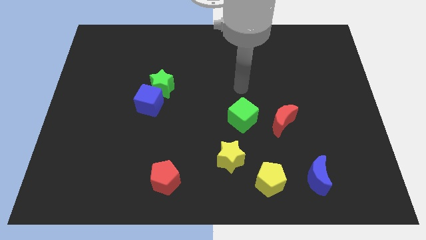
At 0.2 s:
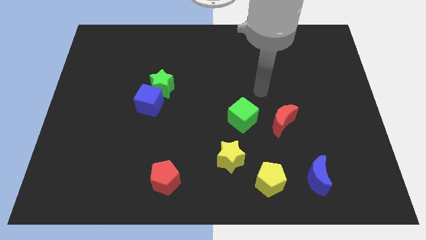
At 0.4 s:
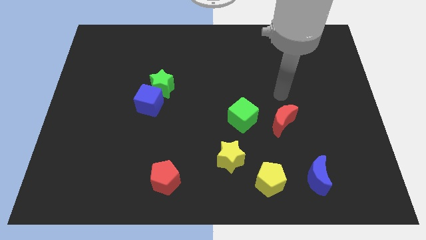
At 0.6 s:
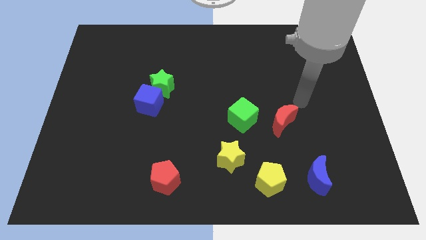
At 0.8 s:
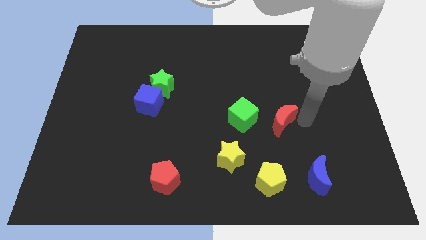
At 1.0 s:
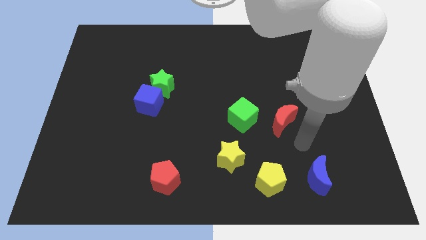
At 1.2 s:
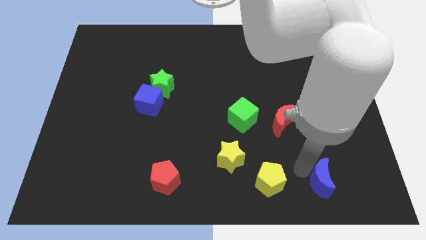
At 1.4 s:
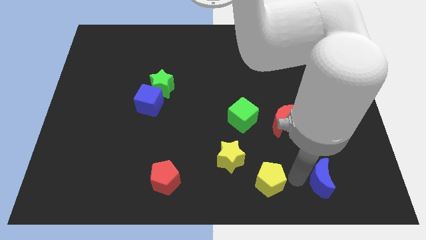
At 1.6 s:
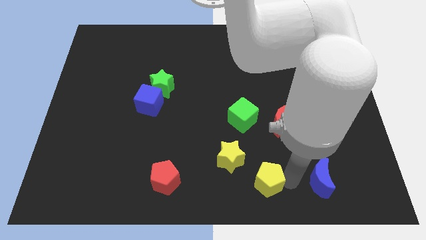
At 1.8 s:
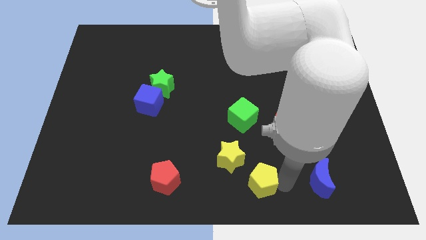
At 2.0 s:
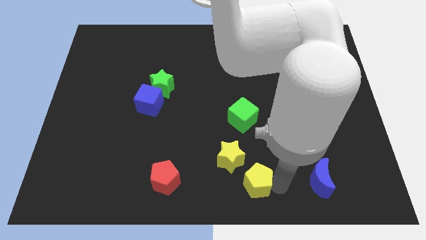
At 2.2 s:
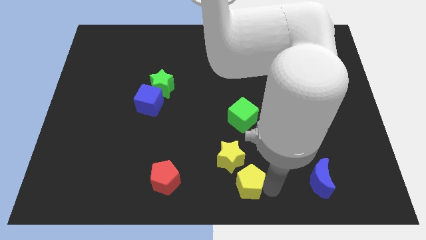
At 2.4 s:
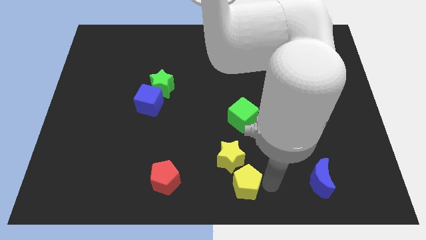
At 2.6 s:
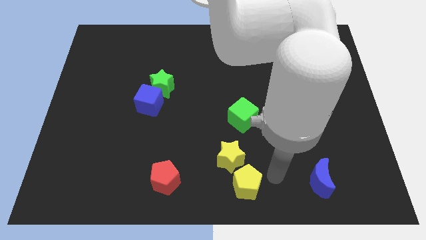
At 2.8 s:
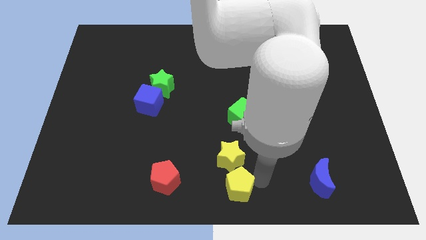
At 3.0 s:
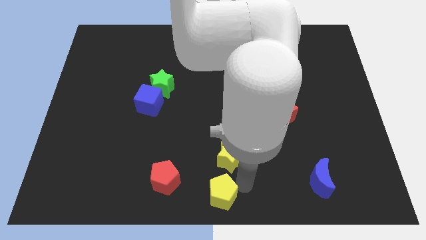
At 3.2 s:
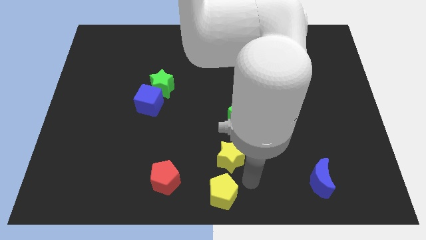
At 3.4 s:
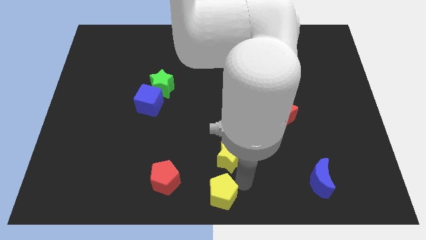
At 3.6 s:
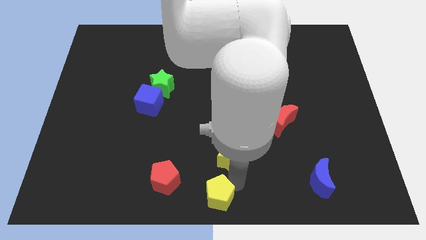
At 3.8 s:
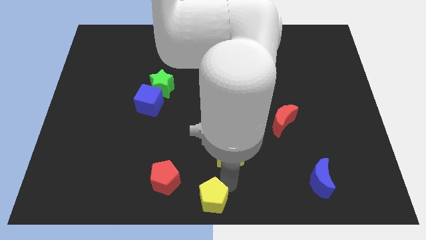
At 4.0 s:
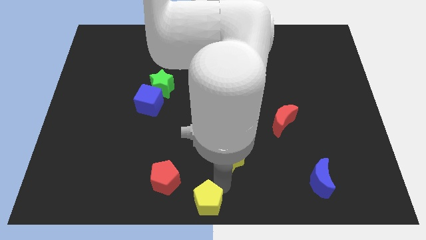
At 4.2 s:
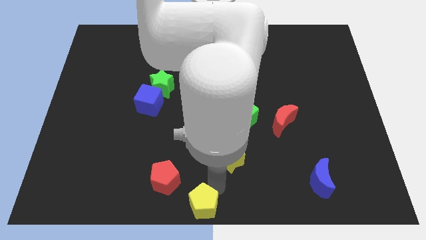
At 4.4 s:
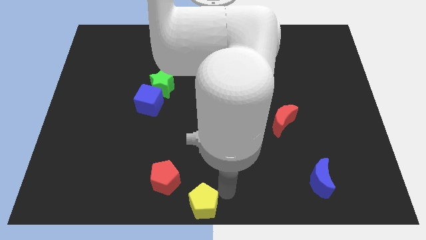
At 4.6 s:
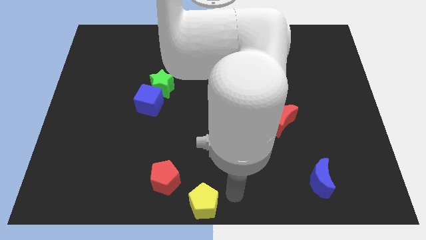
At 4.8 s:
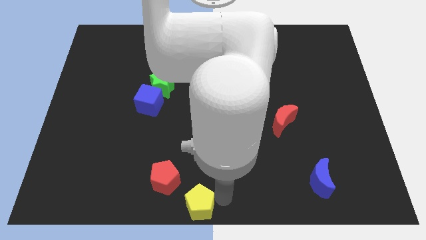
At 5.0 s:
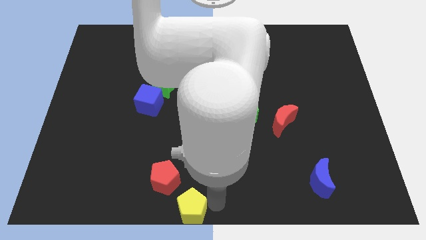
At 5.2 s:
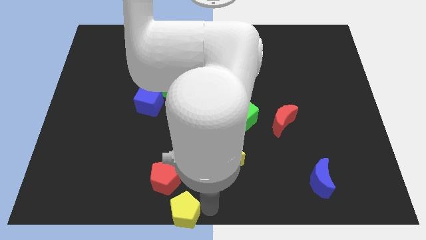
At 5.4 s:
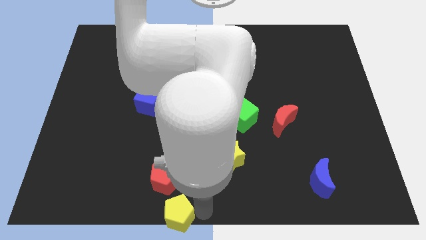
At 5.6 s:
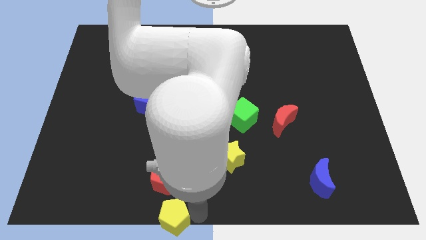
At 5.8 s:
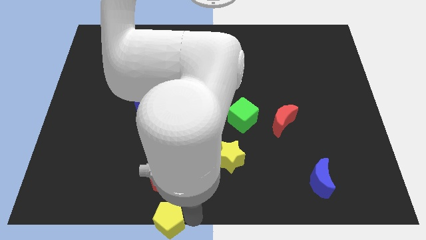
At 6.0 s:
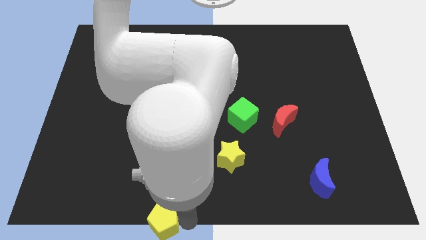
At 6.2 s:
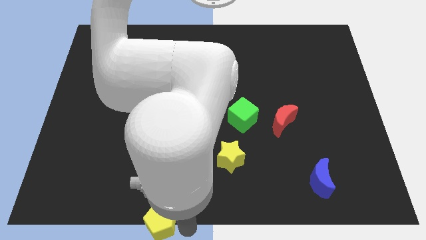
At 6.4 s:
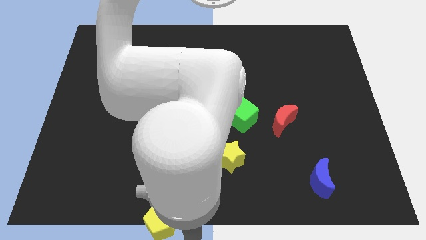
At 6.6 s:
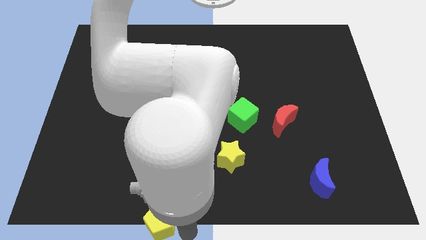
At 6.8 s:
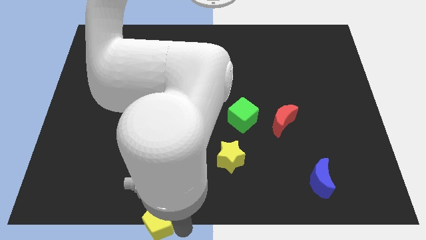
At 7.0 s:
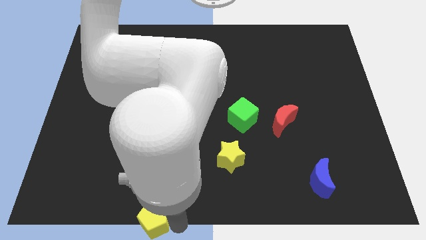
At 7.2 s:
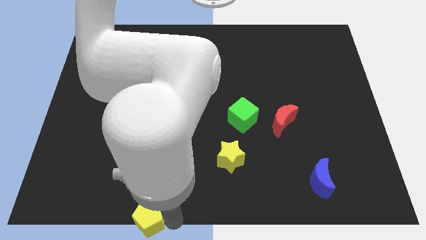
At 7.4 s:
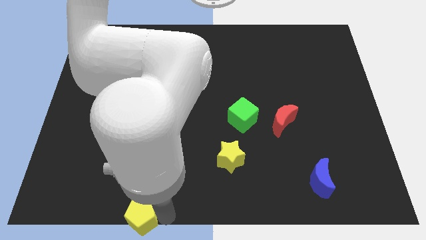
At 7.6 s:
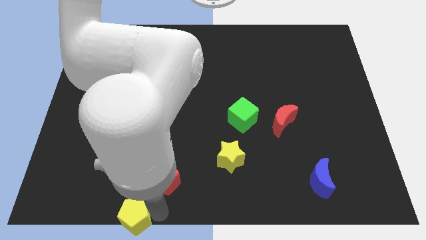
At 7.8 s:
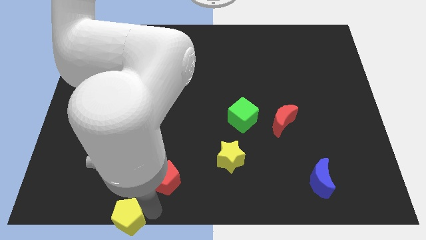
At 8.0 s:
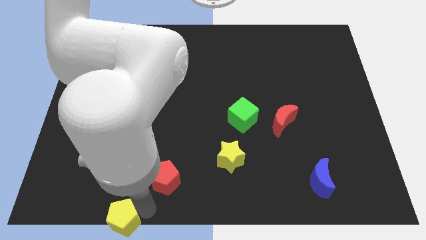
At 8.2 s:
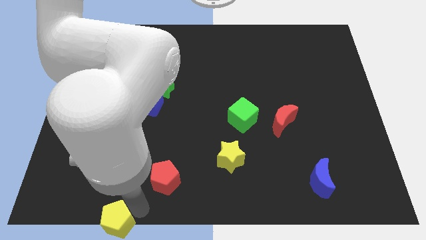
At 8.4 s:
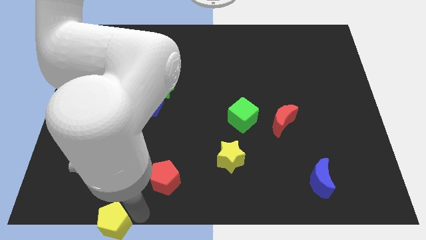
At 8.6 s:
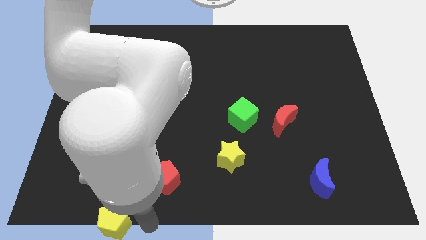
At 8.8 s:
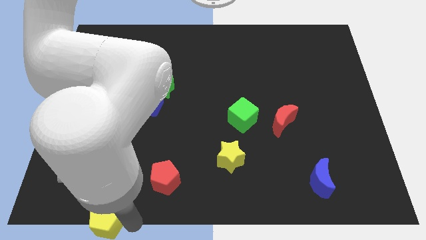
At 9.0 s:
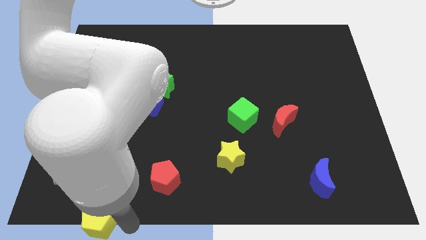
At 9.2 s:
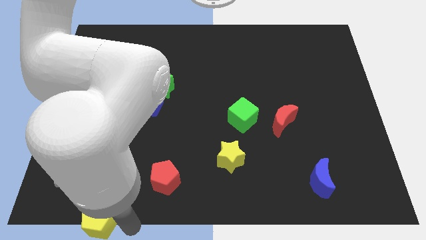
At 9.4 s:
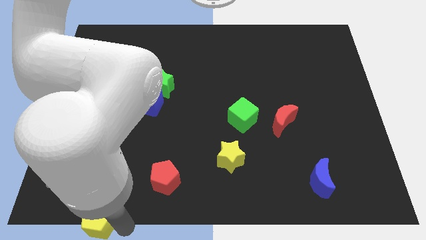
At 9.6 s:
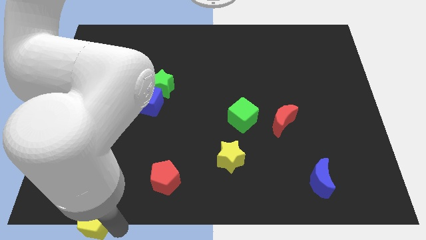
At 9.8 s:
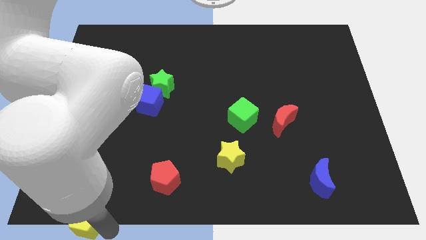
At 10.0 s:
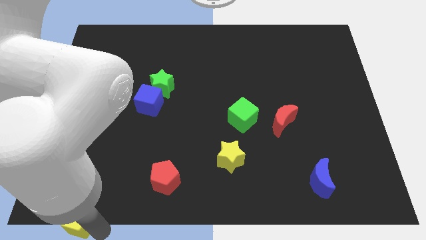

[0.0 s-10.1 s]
put the yellow pentagon to the bottom left corner

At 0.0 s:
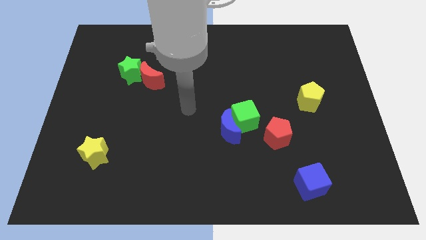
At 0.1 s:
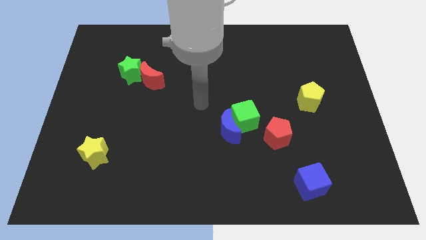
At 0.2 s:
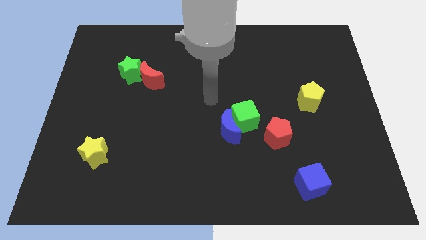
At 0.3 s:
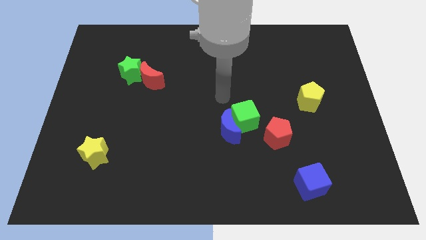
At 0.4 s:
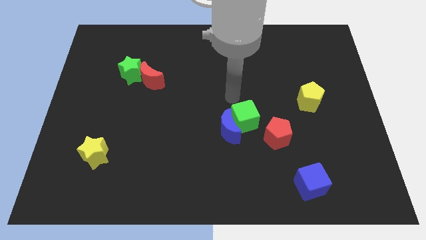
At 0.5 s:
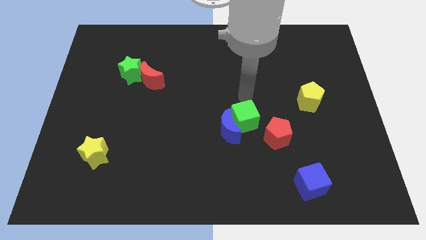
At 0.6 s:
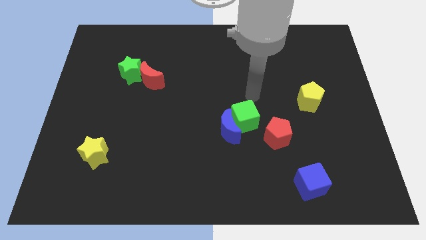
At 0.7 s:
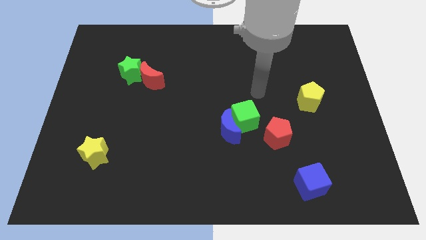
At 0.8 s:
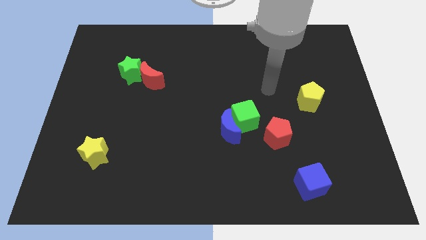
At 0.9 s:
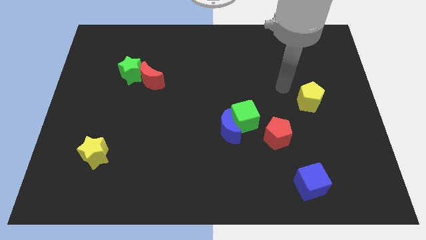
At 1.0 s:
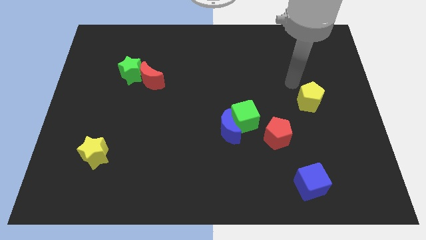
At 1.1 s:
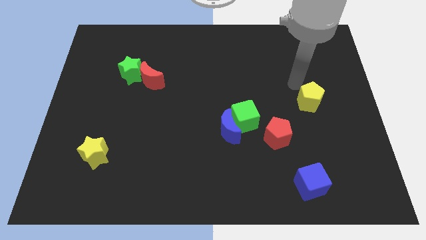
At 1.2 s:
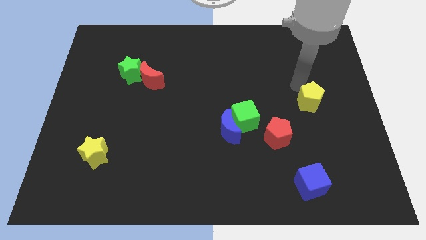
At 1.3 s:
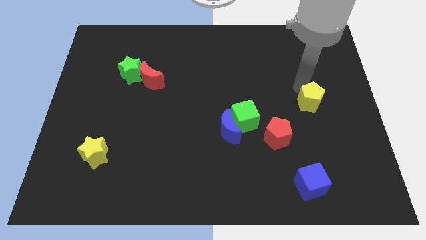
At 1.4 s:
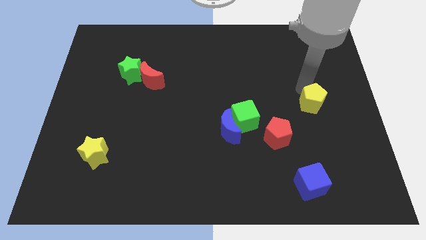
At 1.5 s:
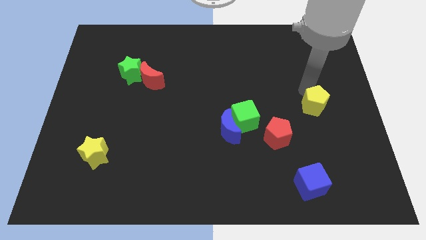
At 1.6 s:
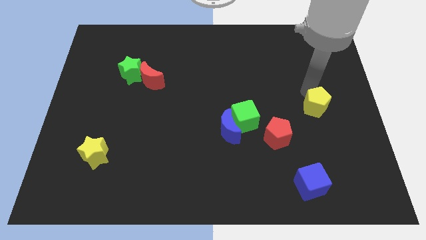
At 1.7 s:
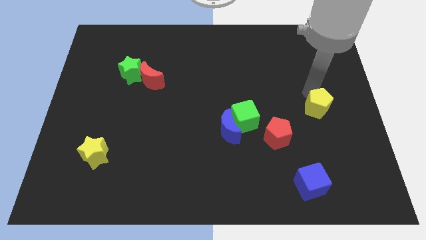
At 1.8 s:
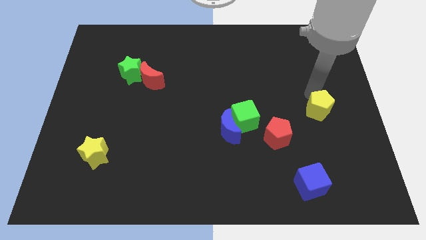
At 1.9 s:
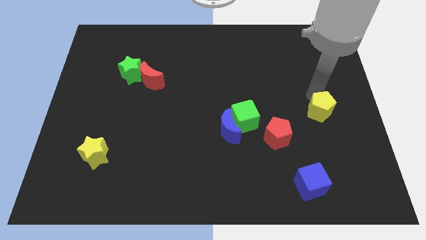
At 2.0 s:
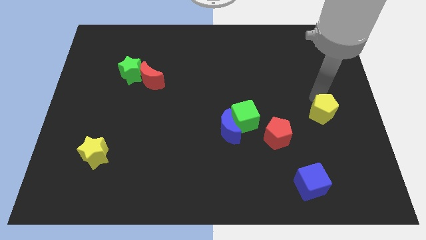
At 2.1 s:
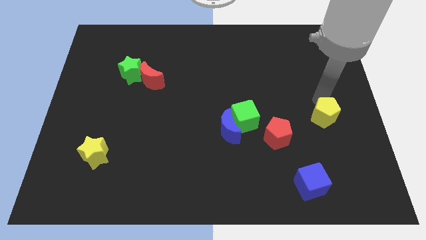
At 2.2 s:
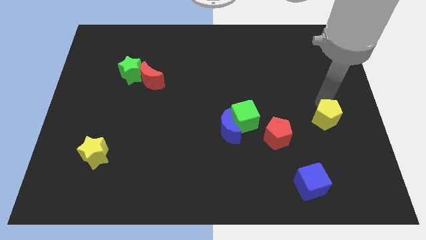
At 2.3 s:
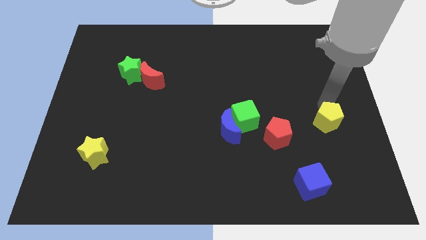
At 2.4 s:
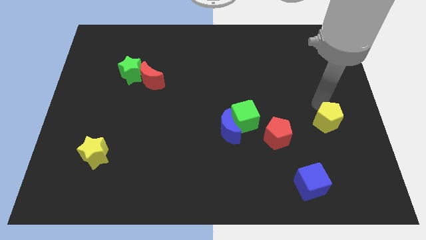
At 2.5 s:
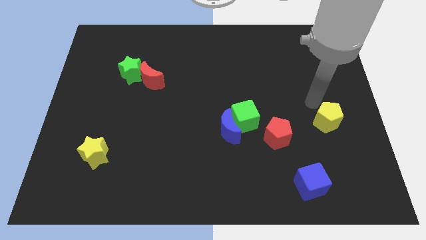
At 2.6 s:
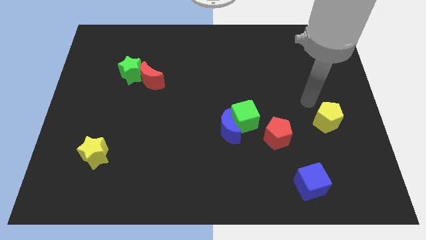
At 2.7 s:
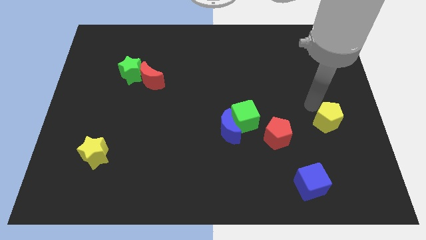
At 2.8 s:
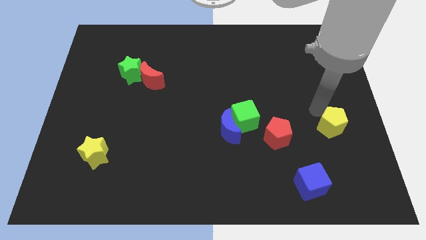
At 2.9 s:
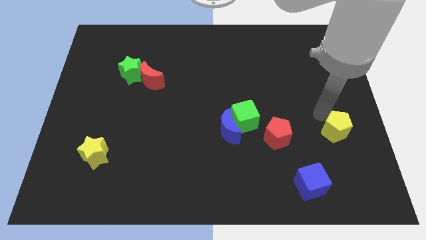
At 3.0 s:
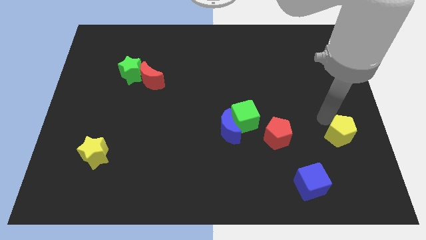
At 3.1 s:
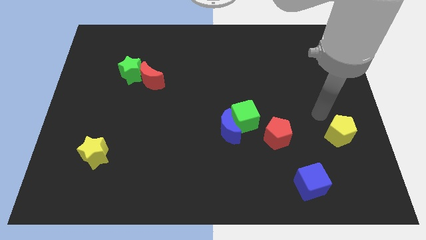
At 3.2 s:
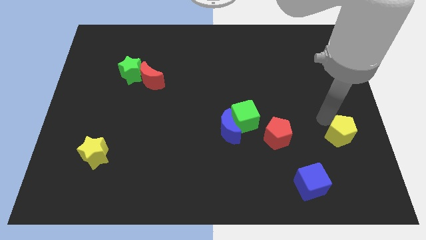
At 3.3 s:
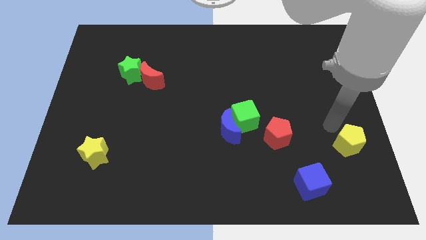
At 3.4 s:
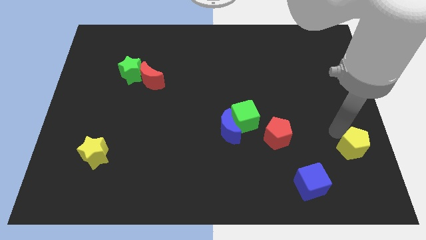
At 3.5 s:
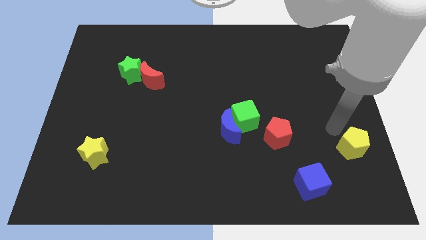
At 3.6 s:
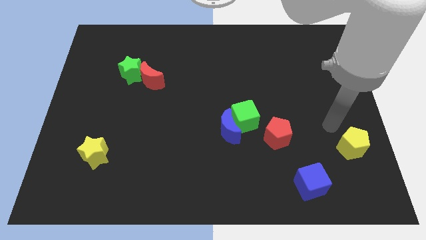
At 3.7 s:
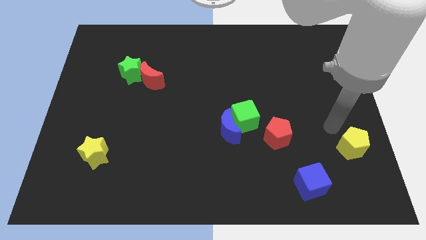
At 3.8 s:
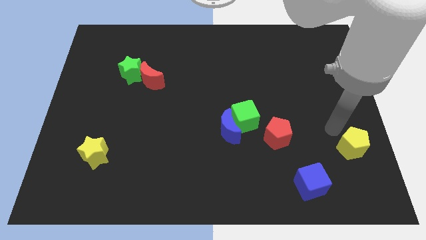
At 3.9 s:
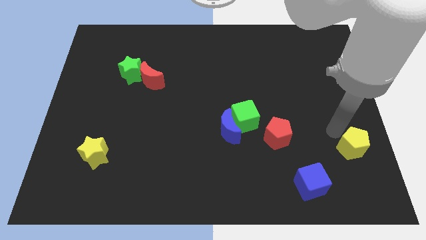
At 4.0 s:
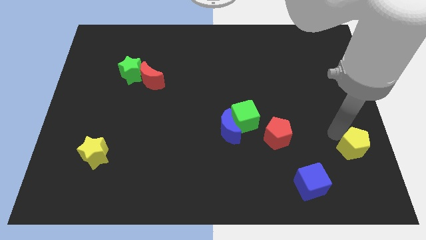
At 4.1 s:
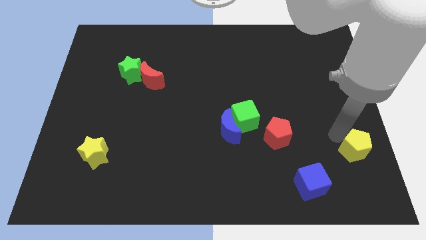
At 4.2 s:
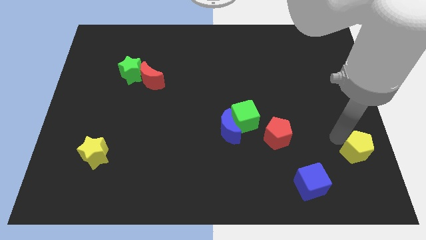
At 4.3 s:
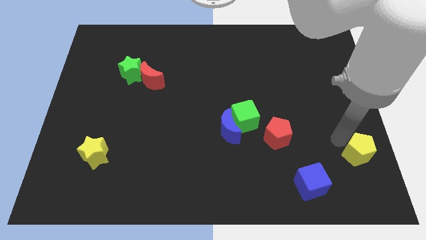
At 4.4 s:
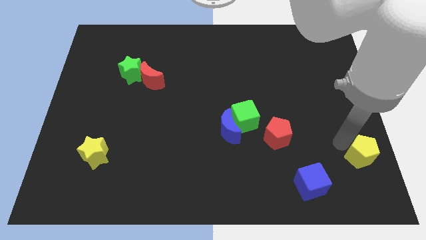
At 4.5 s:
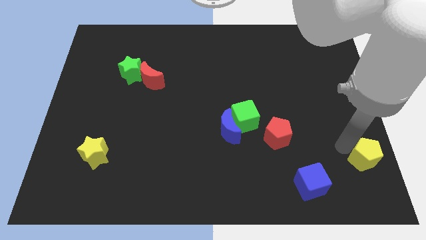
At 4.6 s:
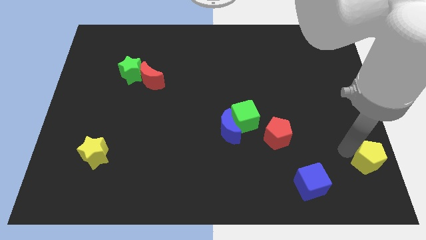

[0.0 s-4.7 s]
push the yellow pentagon to the bottom right of the board
